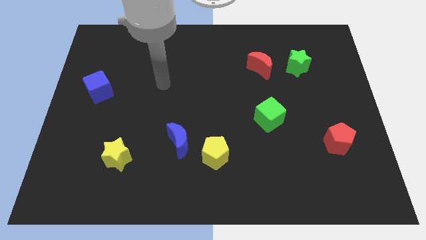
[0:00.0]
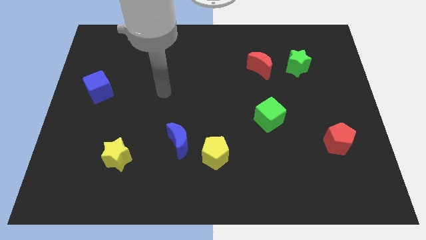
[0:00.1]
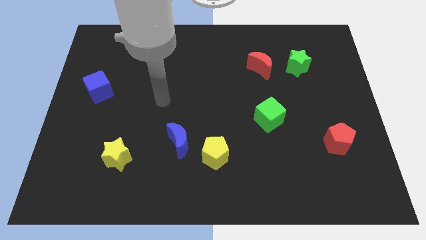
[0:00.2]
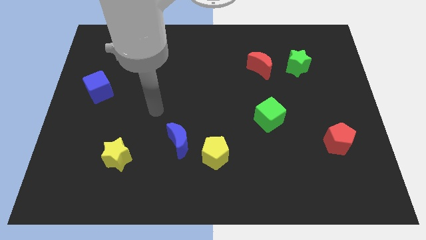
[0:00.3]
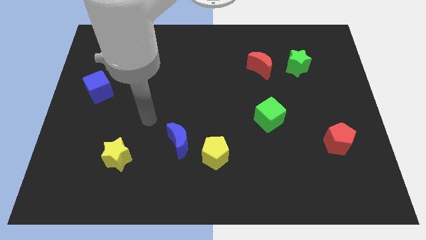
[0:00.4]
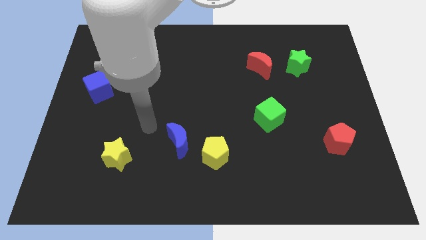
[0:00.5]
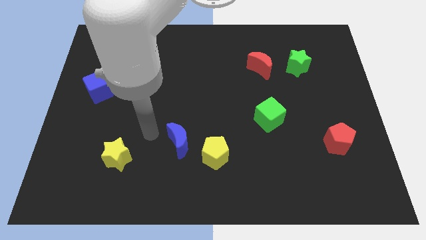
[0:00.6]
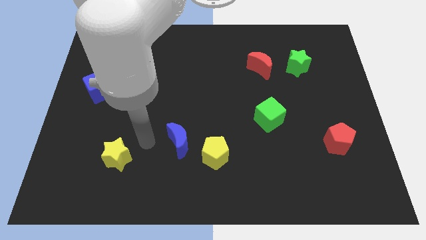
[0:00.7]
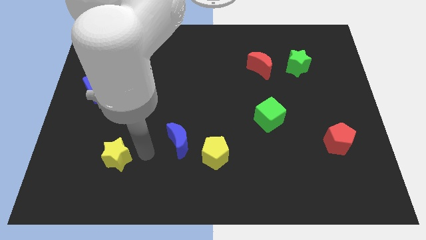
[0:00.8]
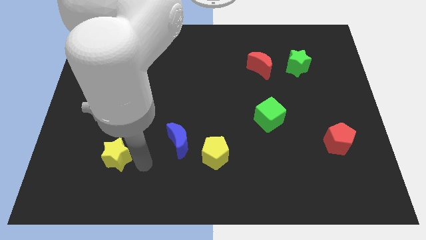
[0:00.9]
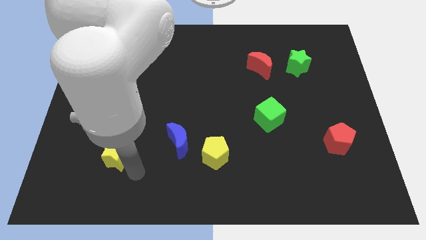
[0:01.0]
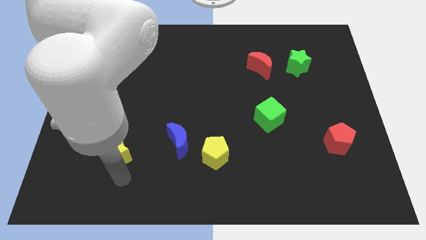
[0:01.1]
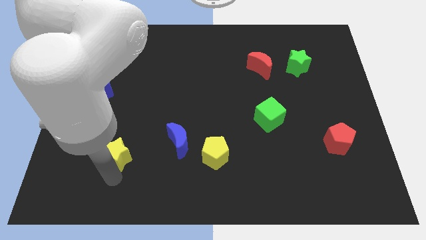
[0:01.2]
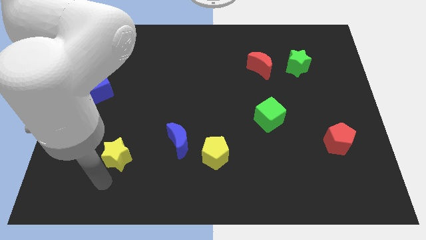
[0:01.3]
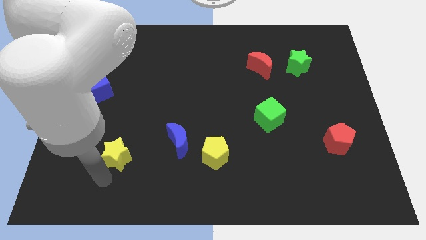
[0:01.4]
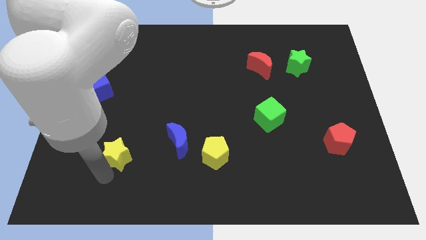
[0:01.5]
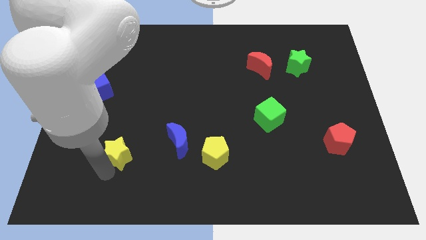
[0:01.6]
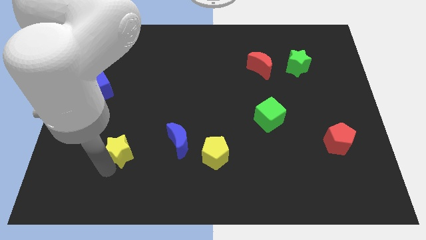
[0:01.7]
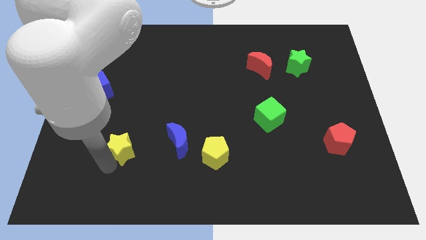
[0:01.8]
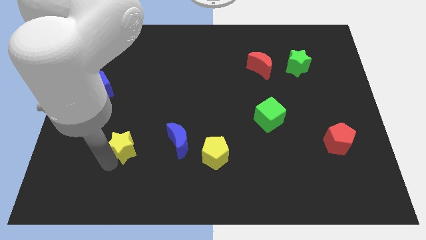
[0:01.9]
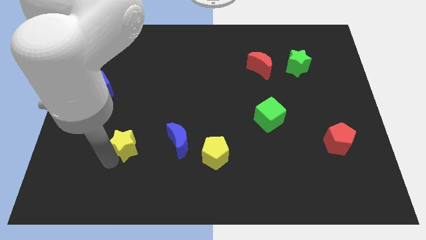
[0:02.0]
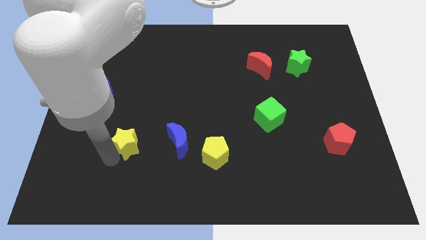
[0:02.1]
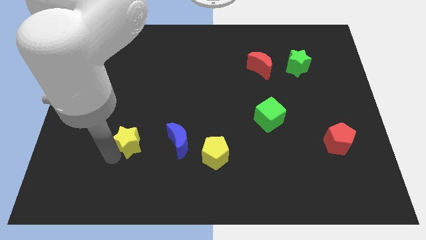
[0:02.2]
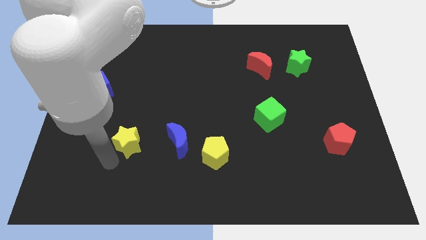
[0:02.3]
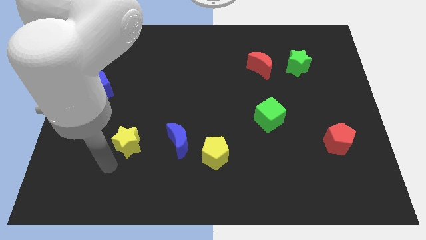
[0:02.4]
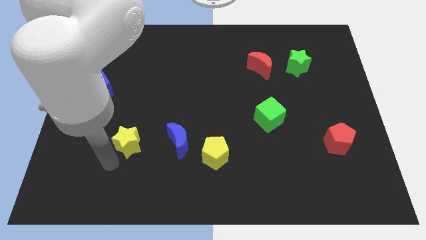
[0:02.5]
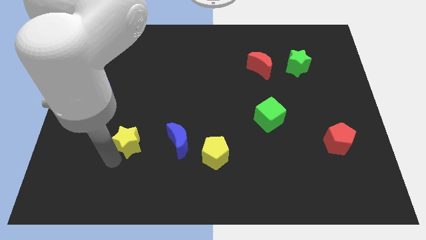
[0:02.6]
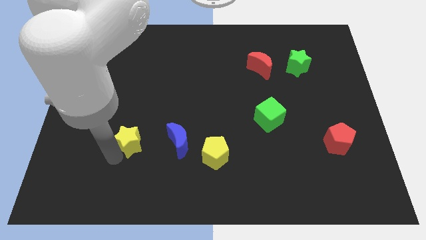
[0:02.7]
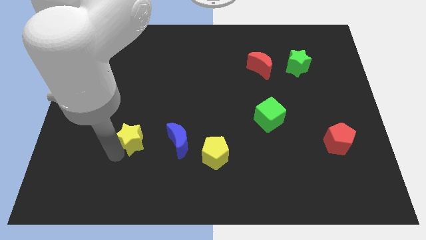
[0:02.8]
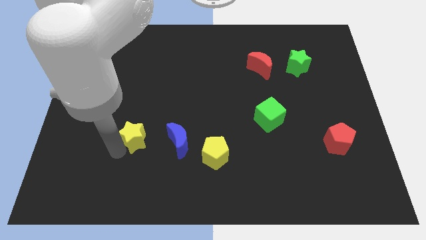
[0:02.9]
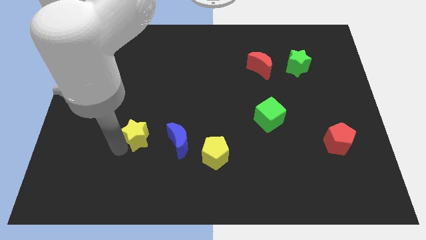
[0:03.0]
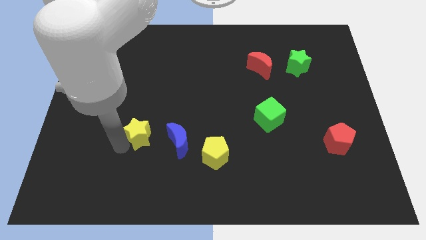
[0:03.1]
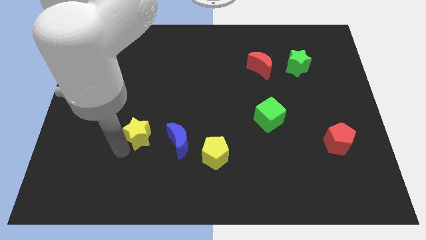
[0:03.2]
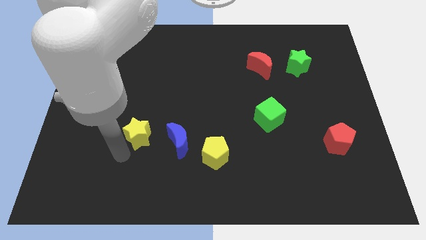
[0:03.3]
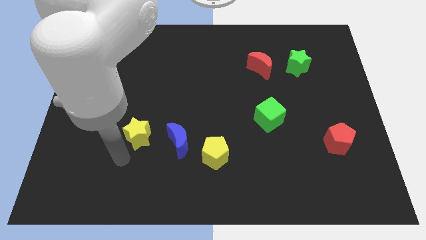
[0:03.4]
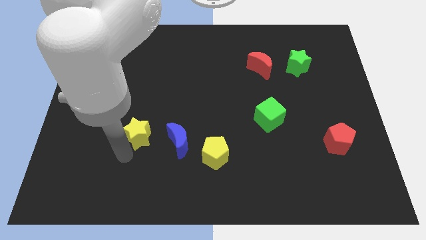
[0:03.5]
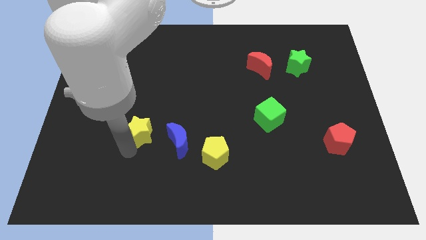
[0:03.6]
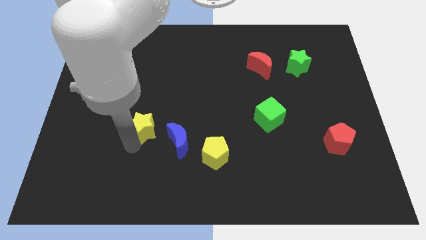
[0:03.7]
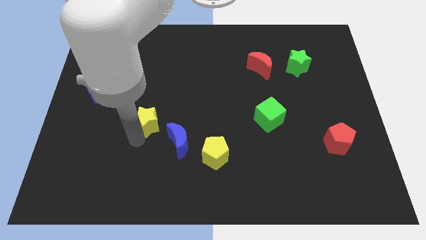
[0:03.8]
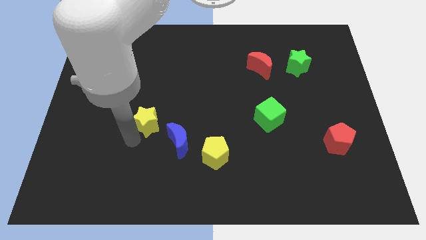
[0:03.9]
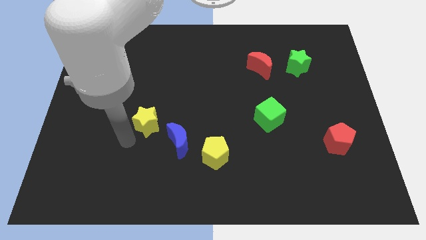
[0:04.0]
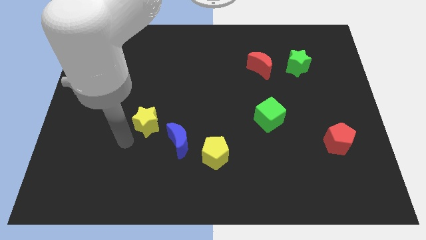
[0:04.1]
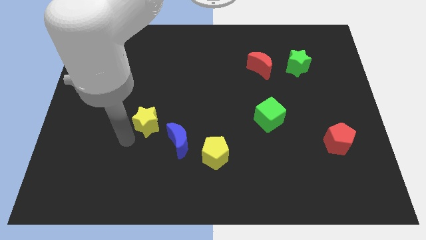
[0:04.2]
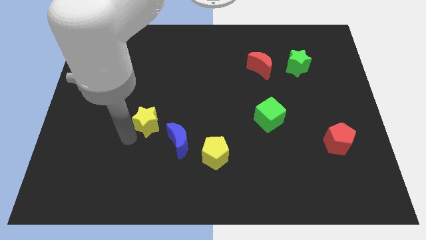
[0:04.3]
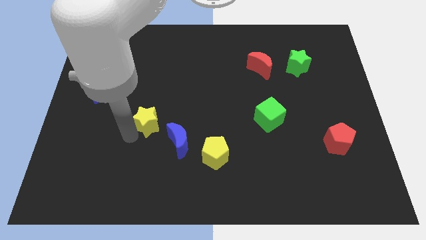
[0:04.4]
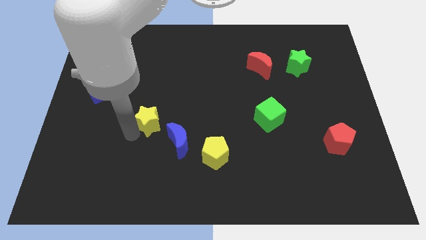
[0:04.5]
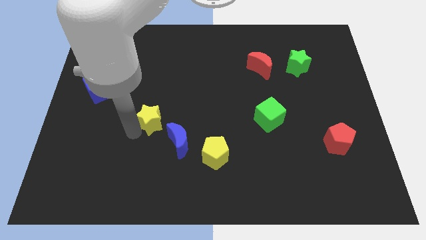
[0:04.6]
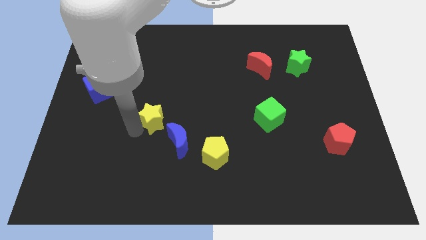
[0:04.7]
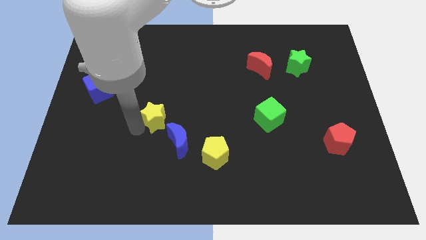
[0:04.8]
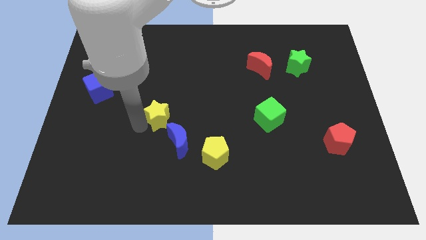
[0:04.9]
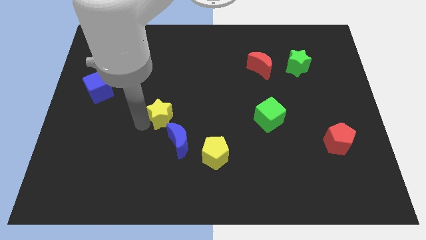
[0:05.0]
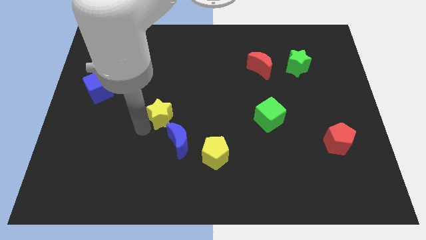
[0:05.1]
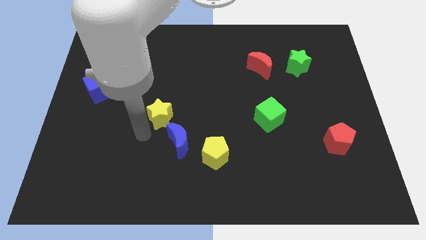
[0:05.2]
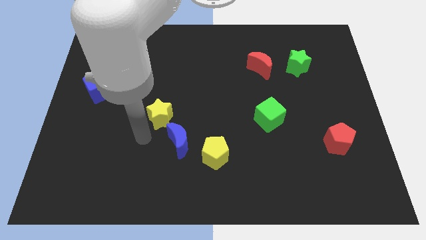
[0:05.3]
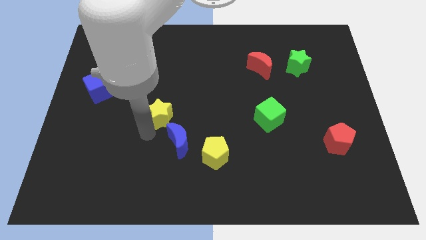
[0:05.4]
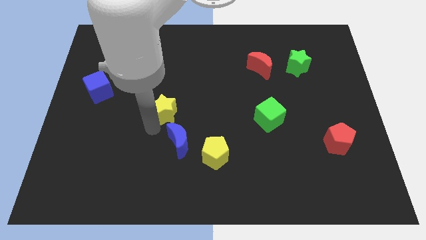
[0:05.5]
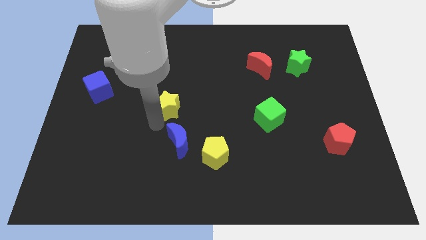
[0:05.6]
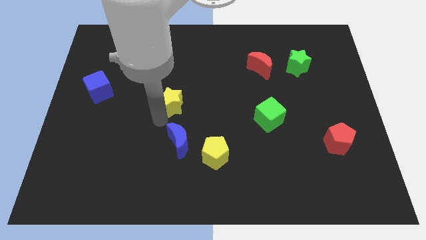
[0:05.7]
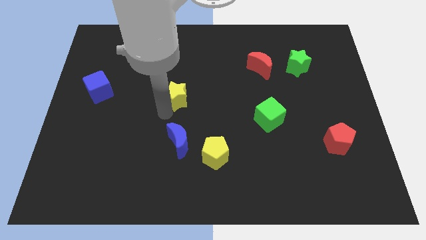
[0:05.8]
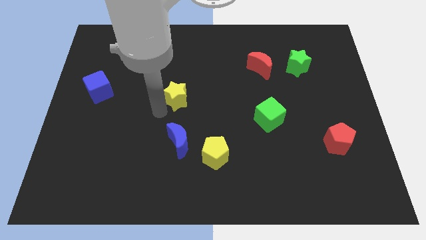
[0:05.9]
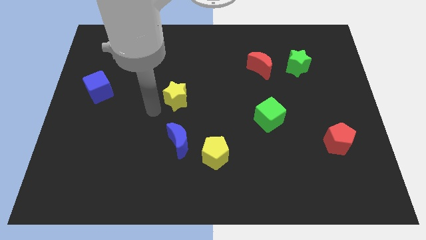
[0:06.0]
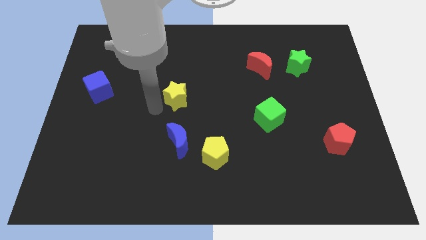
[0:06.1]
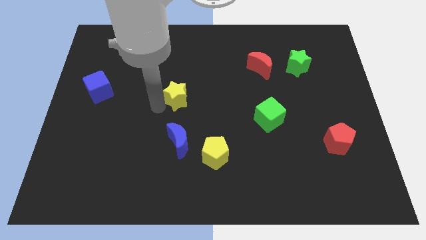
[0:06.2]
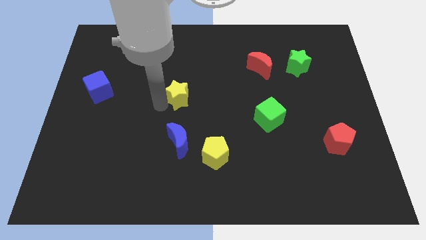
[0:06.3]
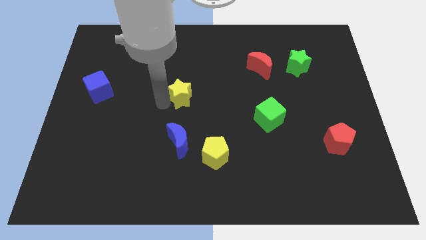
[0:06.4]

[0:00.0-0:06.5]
push the yellow star upwards and then to the right

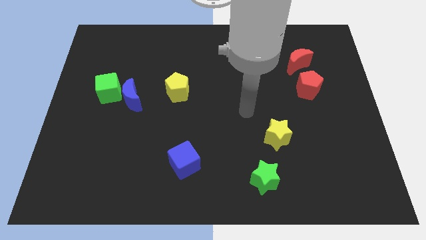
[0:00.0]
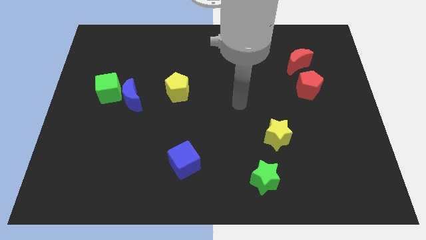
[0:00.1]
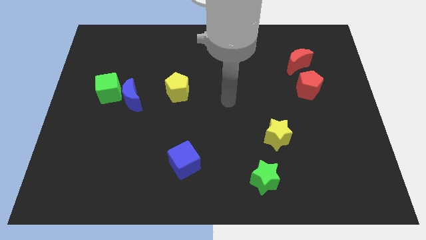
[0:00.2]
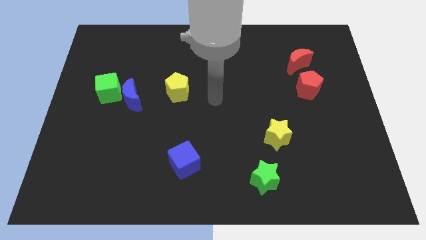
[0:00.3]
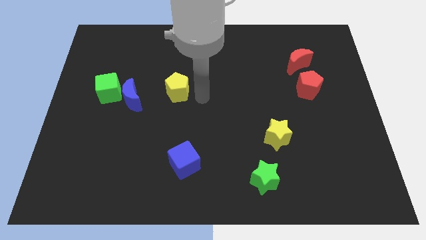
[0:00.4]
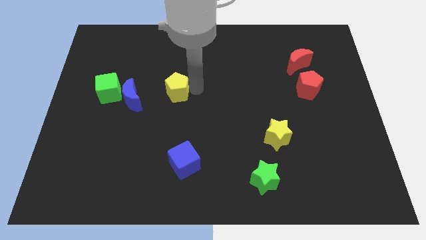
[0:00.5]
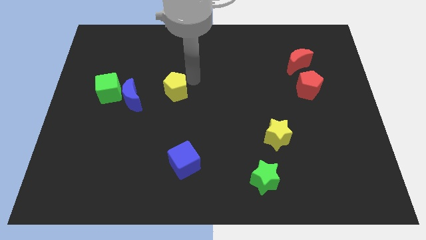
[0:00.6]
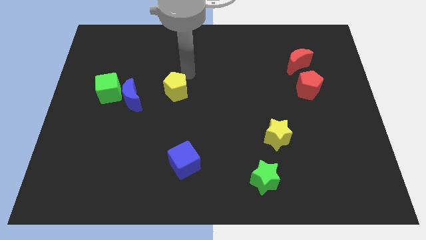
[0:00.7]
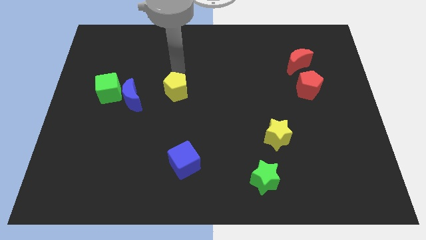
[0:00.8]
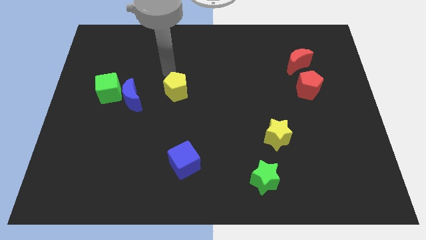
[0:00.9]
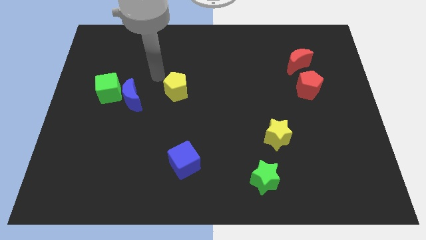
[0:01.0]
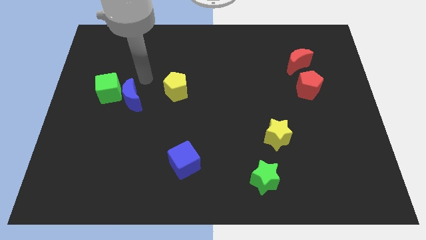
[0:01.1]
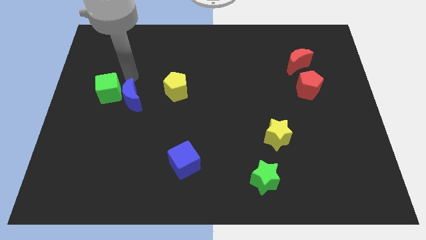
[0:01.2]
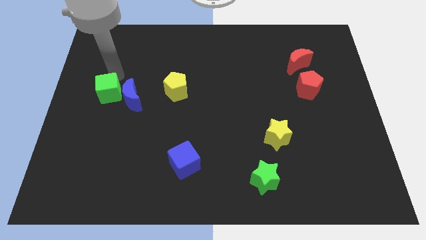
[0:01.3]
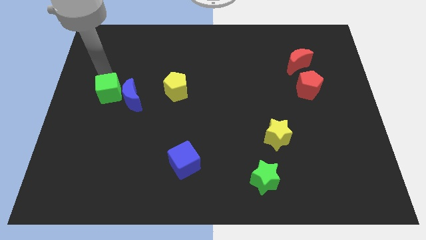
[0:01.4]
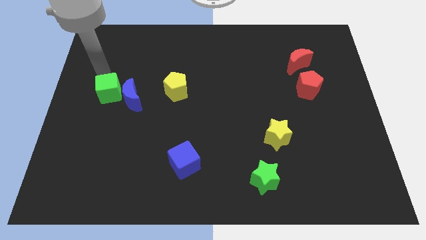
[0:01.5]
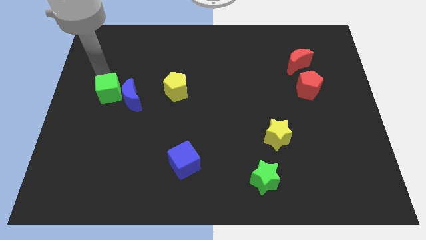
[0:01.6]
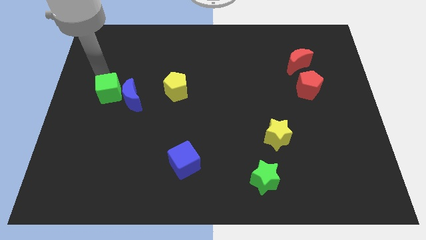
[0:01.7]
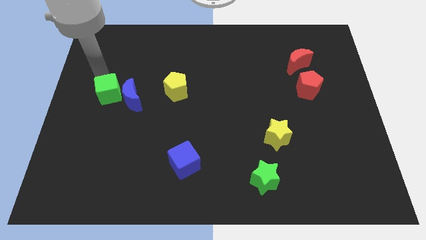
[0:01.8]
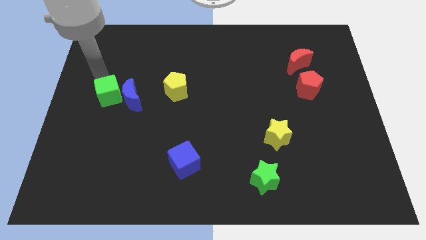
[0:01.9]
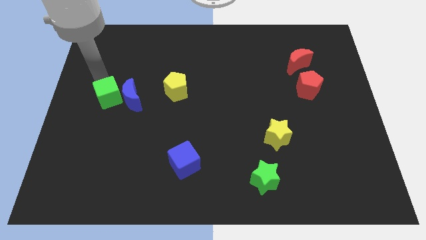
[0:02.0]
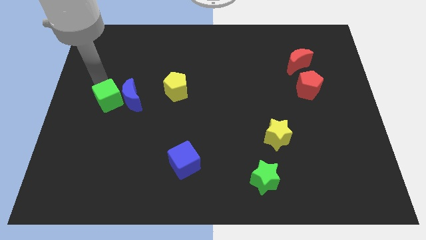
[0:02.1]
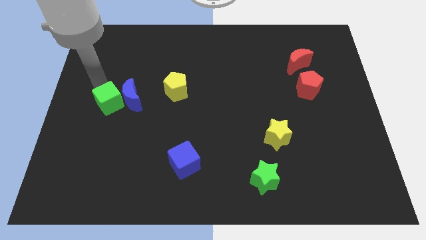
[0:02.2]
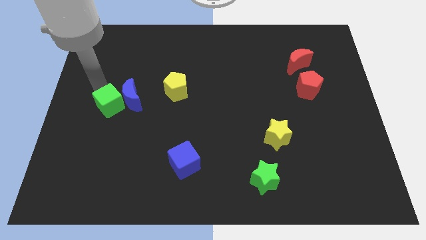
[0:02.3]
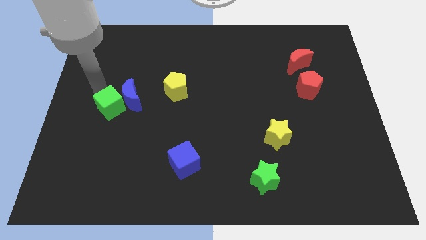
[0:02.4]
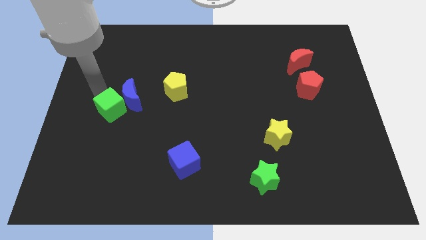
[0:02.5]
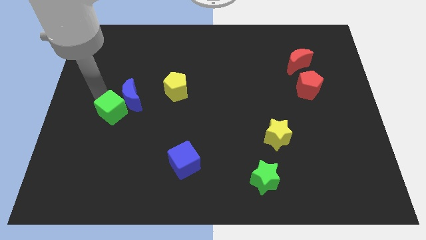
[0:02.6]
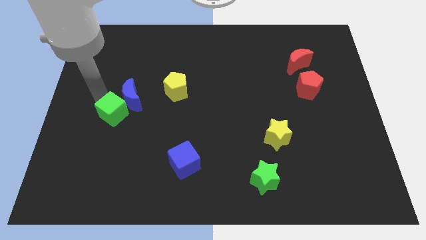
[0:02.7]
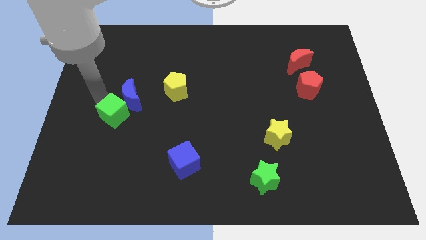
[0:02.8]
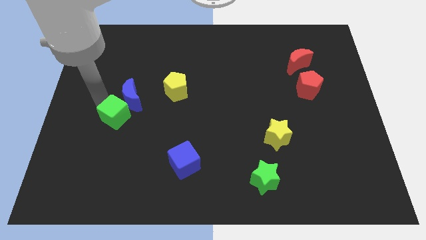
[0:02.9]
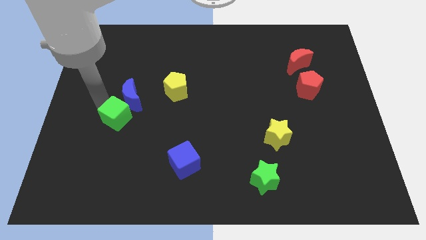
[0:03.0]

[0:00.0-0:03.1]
move the green cube down and to the right diagonally somewhat
